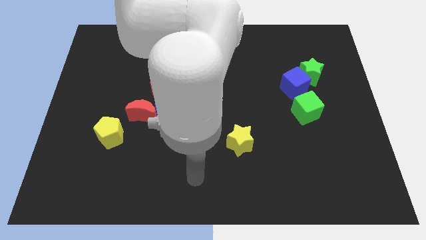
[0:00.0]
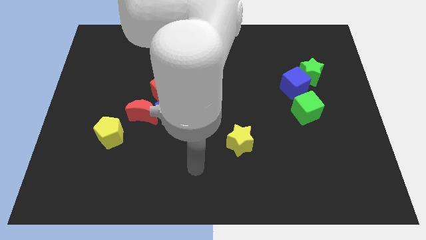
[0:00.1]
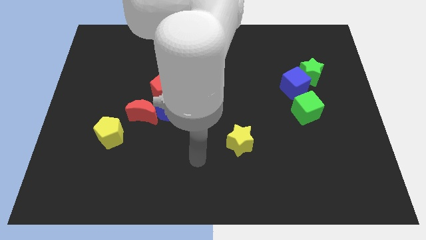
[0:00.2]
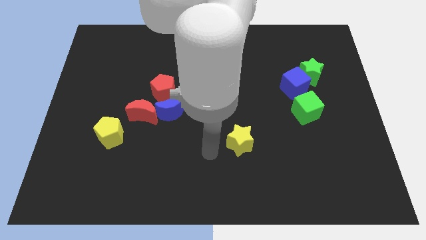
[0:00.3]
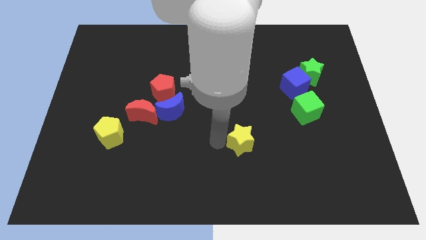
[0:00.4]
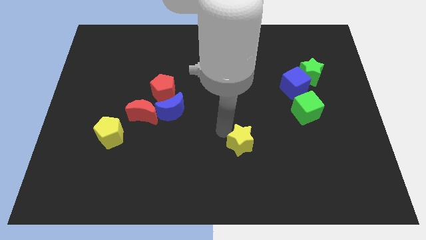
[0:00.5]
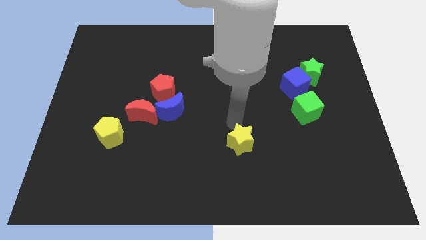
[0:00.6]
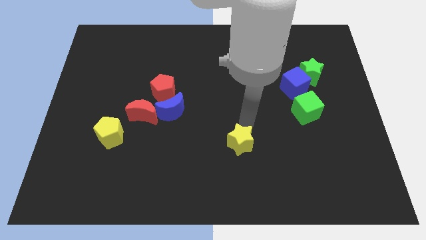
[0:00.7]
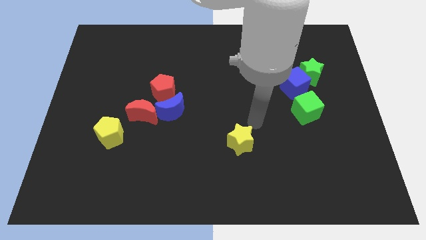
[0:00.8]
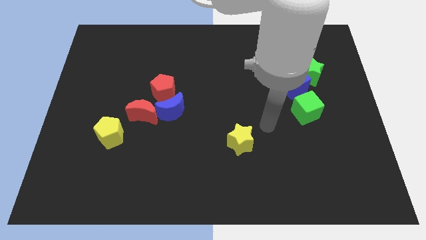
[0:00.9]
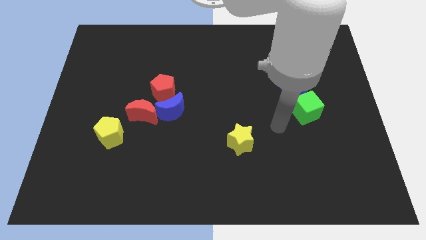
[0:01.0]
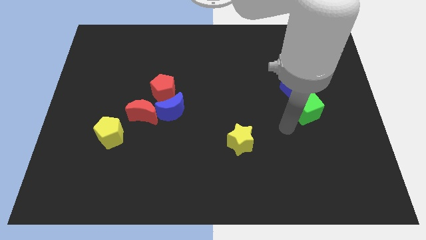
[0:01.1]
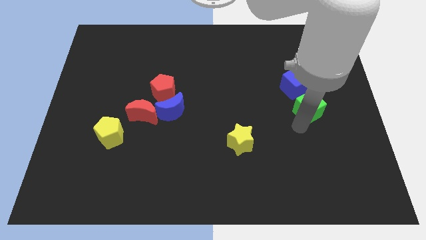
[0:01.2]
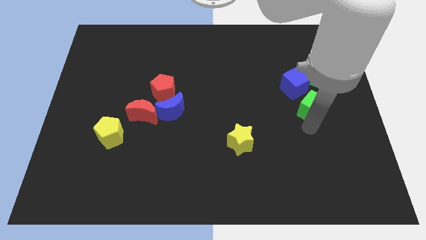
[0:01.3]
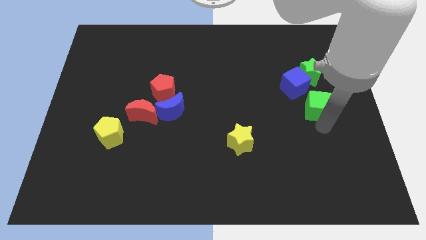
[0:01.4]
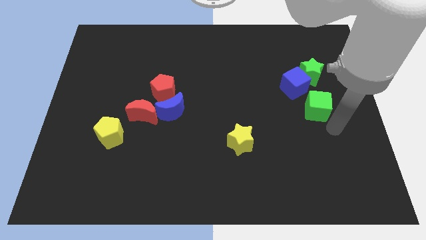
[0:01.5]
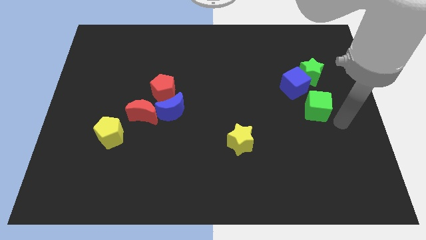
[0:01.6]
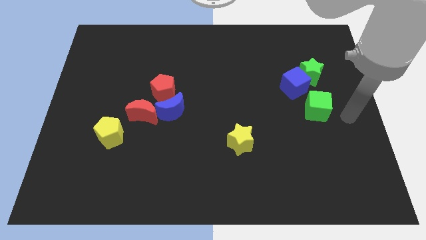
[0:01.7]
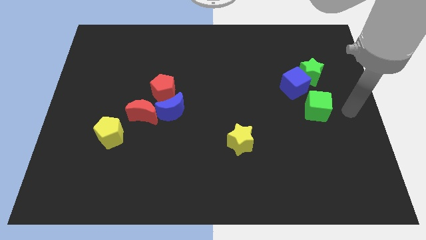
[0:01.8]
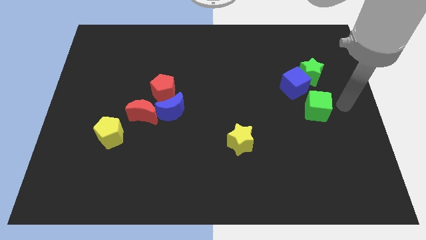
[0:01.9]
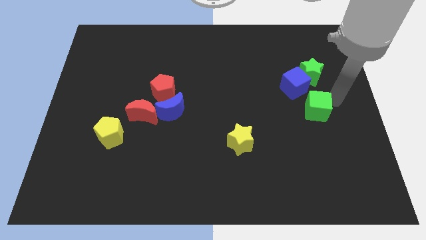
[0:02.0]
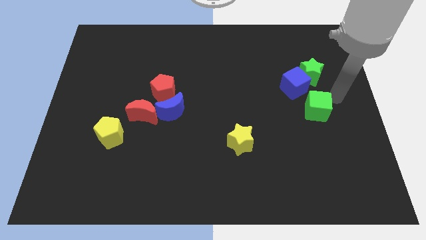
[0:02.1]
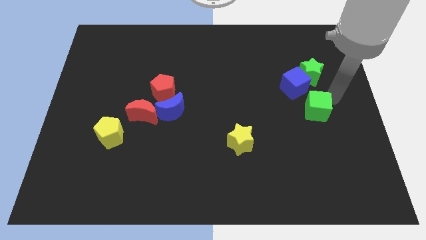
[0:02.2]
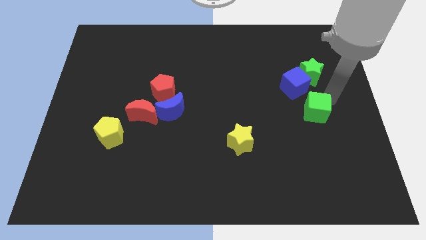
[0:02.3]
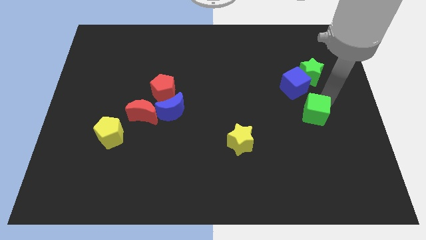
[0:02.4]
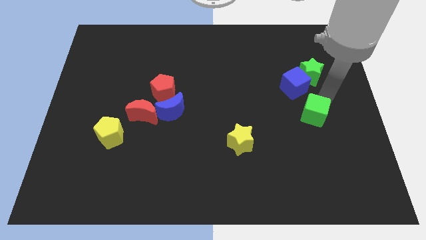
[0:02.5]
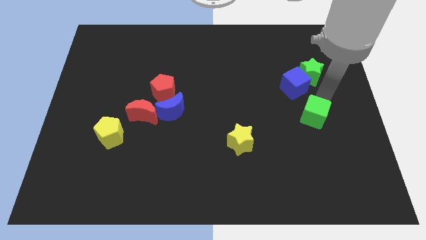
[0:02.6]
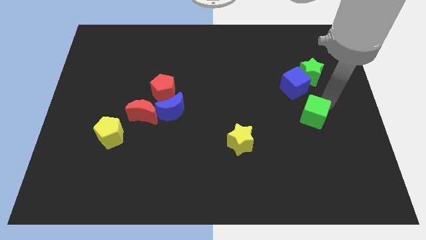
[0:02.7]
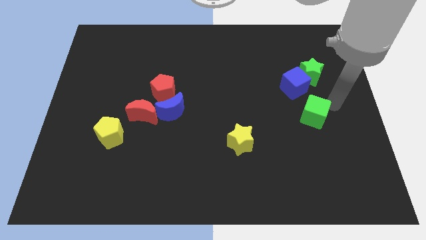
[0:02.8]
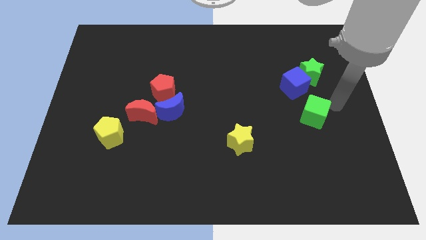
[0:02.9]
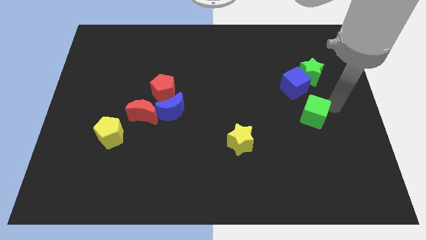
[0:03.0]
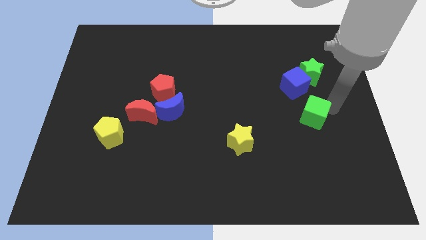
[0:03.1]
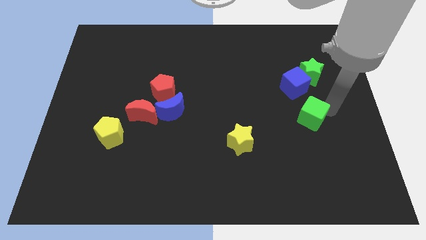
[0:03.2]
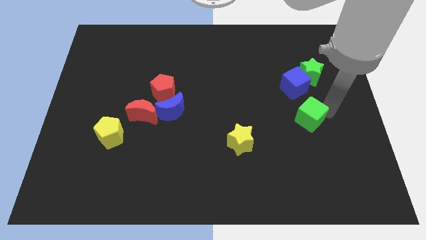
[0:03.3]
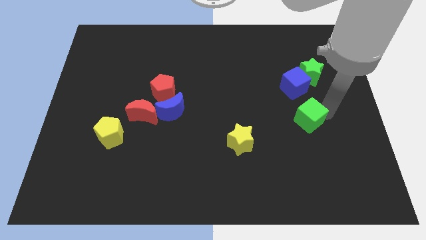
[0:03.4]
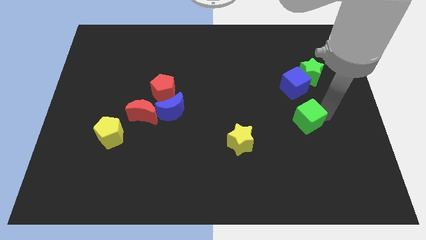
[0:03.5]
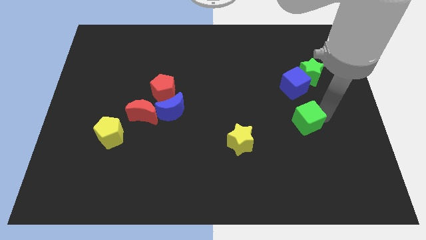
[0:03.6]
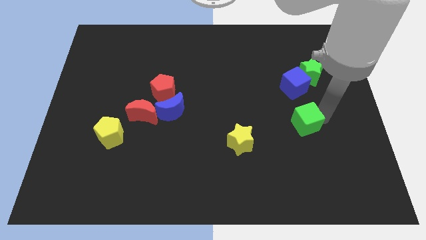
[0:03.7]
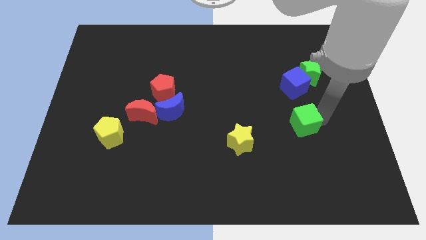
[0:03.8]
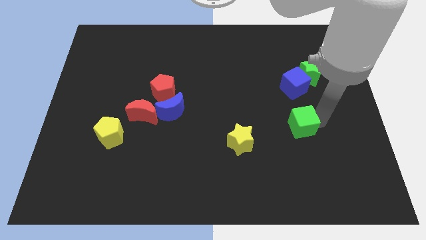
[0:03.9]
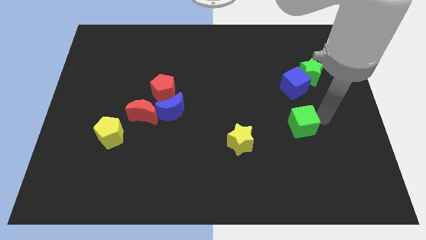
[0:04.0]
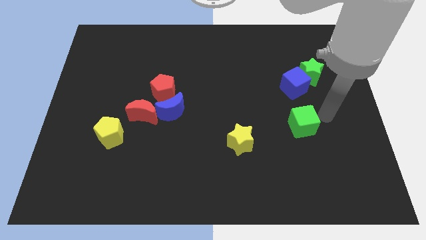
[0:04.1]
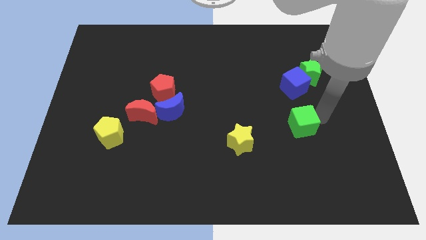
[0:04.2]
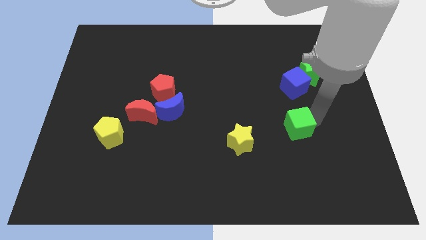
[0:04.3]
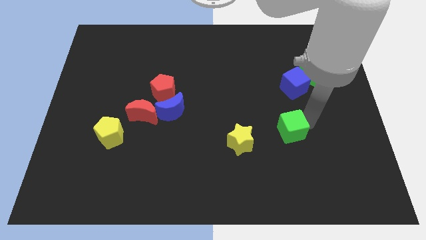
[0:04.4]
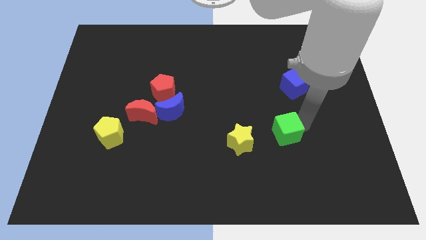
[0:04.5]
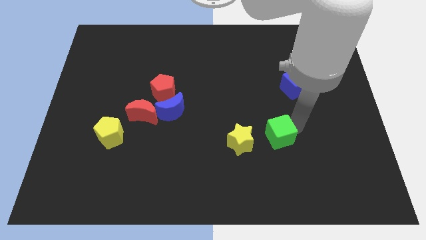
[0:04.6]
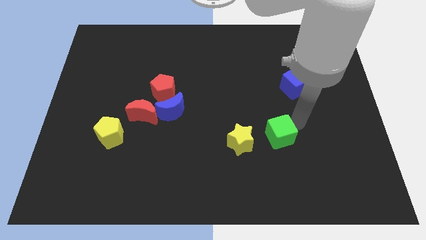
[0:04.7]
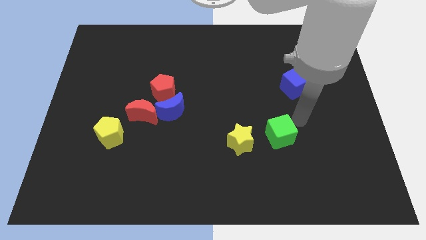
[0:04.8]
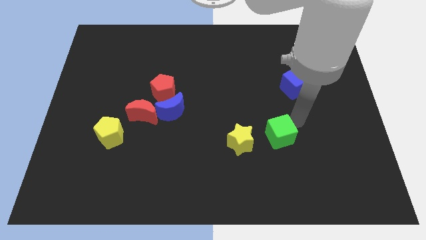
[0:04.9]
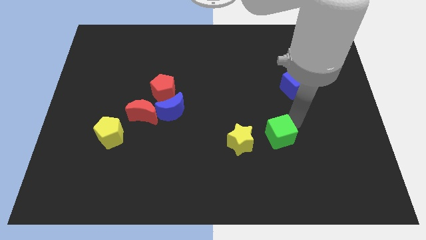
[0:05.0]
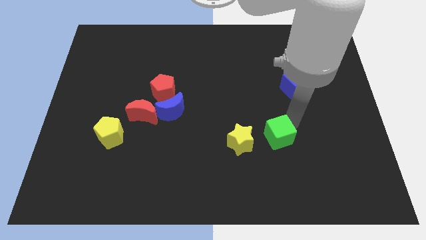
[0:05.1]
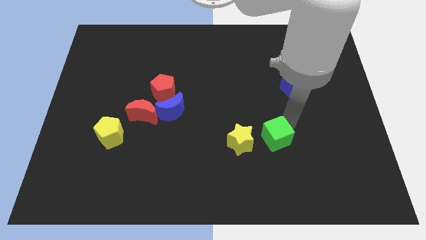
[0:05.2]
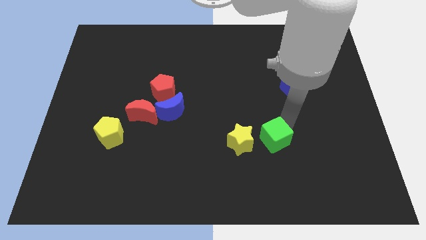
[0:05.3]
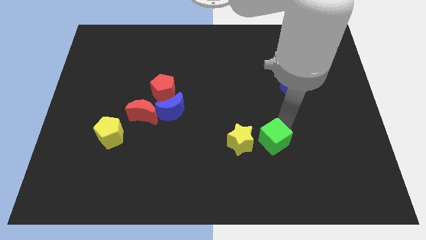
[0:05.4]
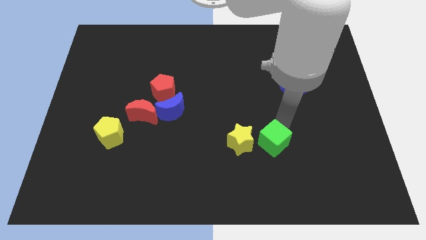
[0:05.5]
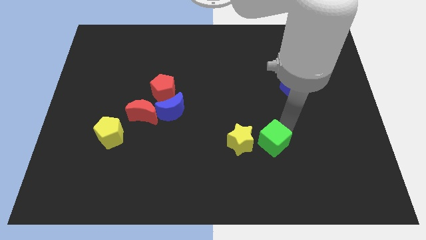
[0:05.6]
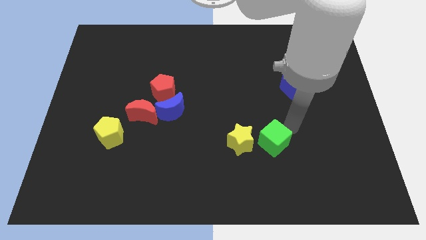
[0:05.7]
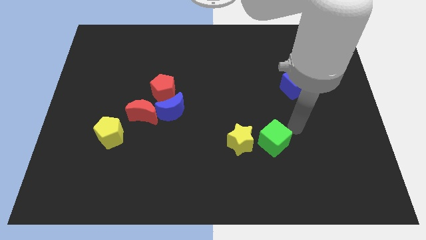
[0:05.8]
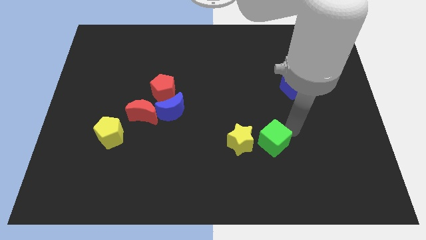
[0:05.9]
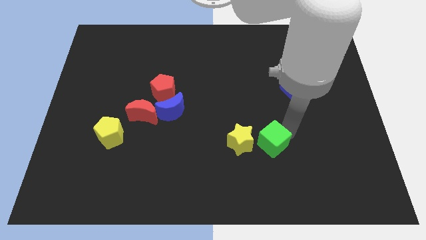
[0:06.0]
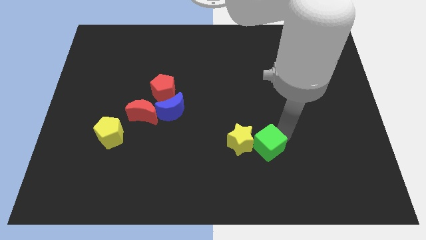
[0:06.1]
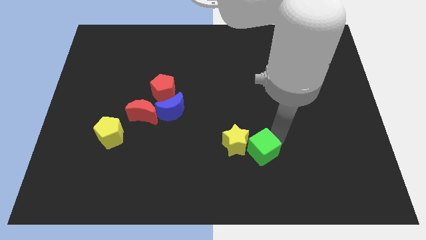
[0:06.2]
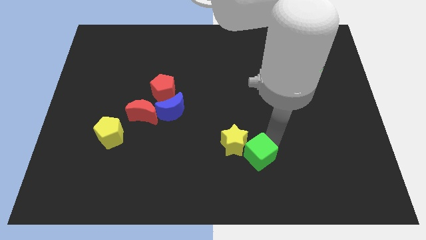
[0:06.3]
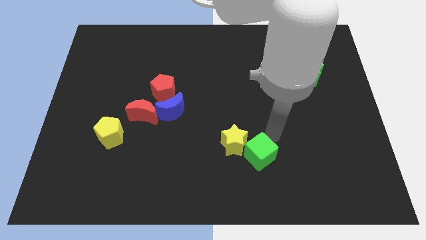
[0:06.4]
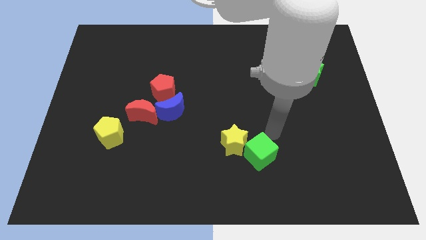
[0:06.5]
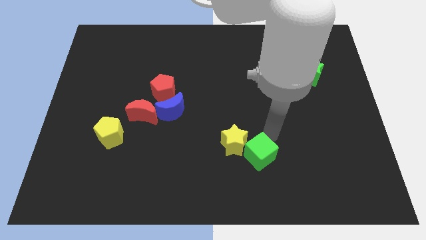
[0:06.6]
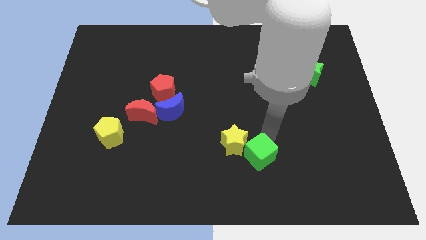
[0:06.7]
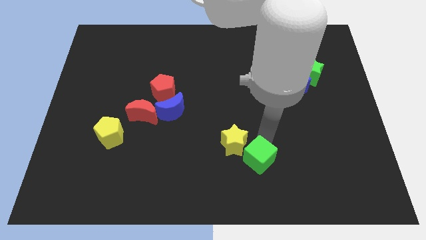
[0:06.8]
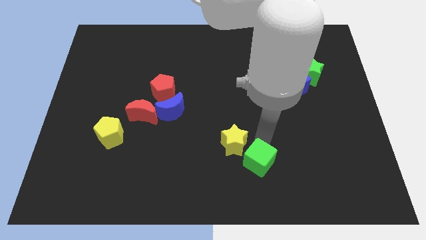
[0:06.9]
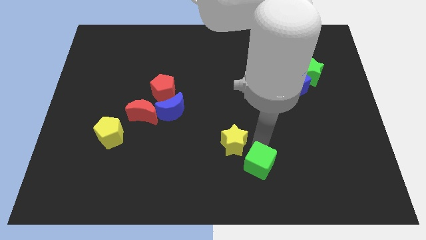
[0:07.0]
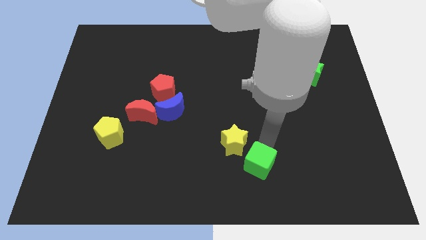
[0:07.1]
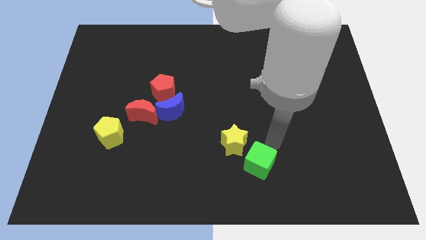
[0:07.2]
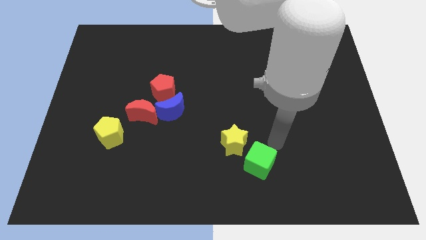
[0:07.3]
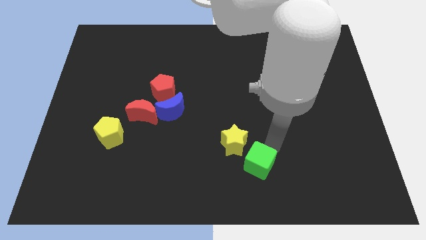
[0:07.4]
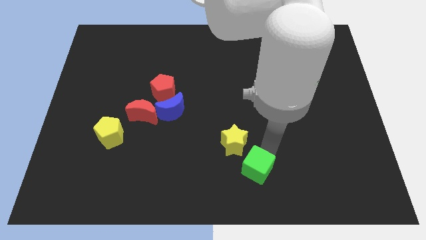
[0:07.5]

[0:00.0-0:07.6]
push the green cube to the bottom
